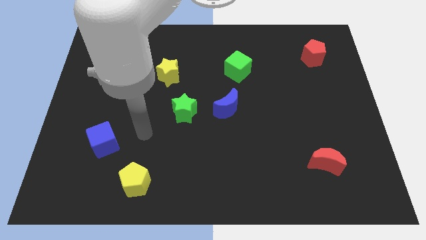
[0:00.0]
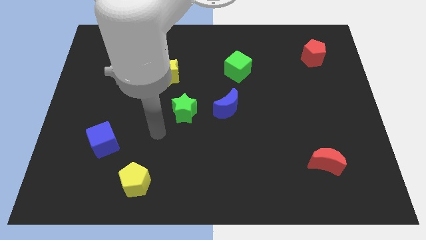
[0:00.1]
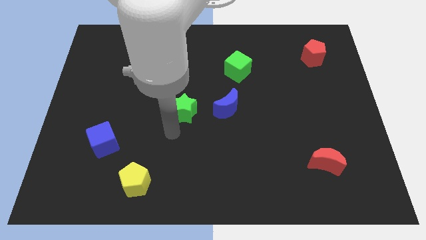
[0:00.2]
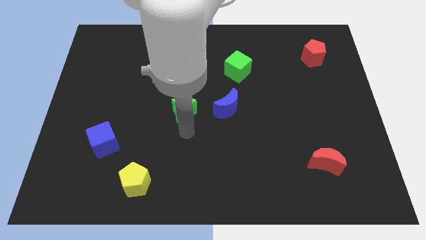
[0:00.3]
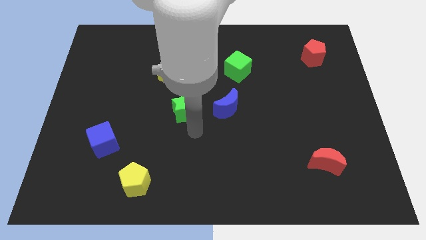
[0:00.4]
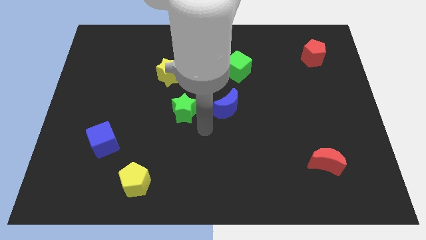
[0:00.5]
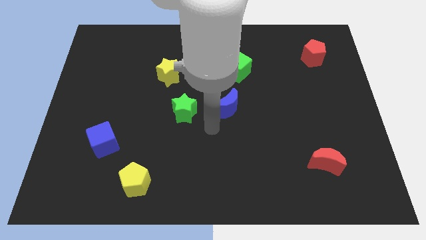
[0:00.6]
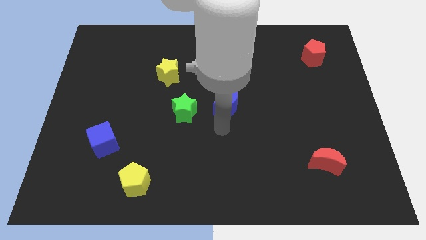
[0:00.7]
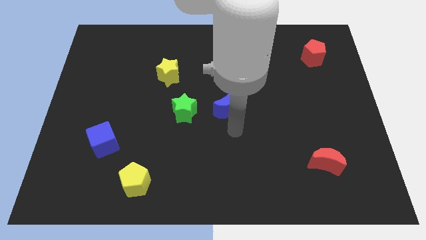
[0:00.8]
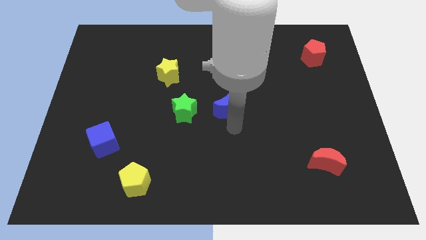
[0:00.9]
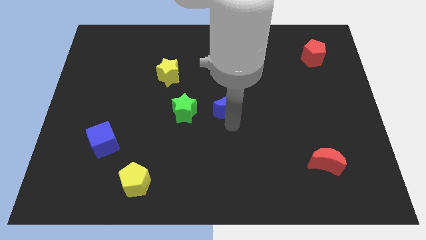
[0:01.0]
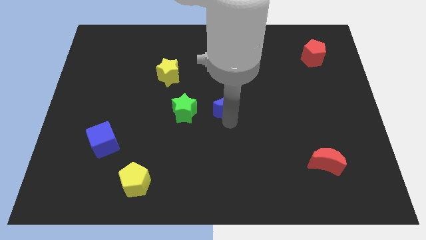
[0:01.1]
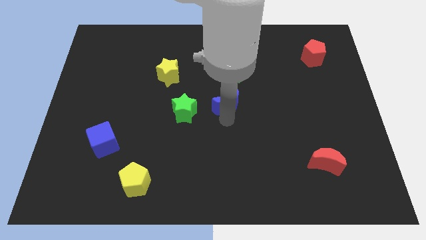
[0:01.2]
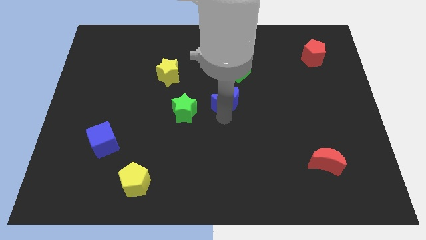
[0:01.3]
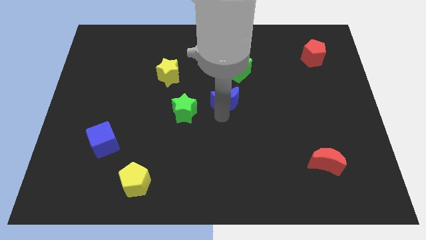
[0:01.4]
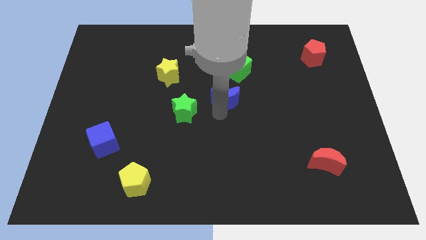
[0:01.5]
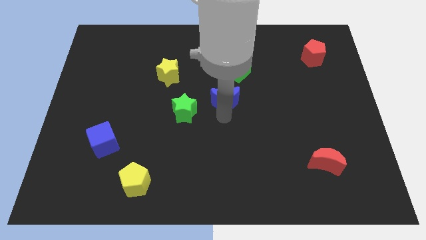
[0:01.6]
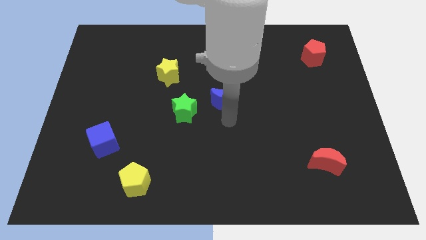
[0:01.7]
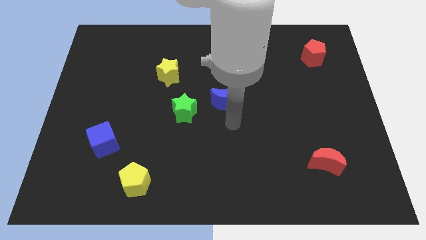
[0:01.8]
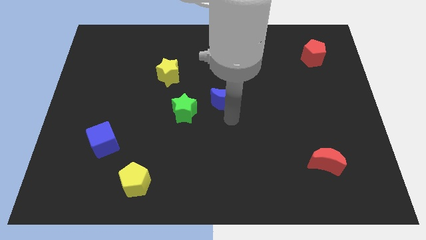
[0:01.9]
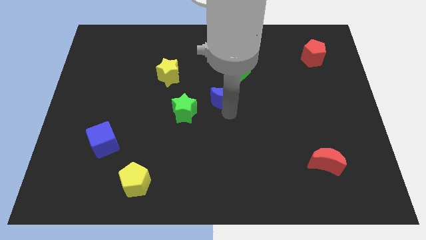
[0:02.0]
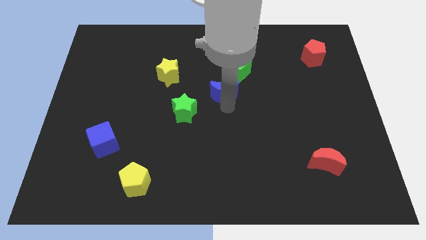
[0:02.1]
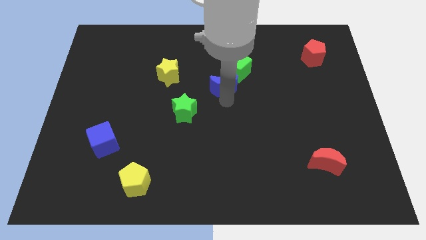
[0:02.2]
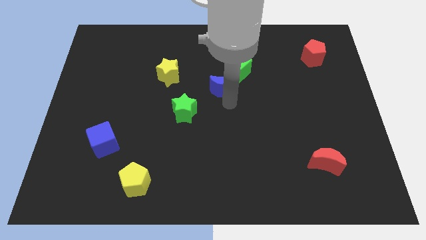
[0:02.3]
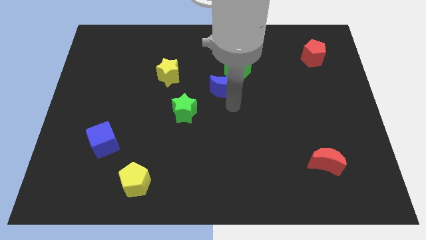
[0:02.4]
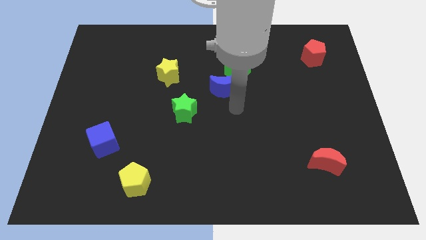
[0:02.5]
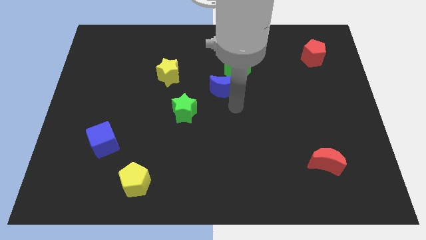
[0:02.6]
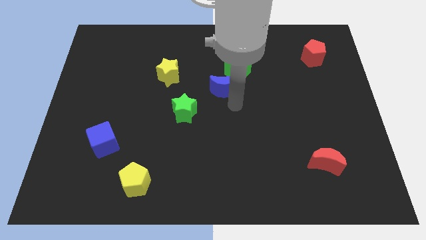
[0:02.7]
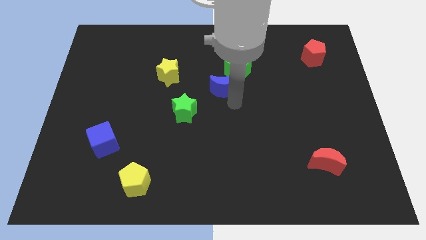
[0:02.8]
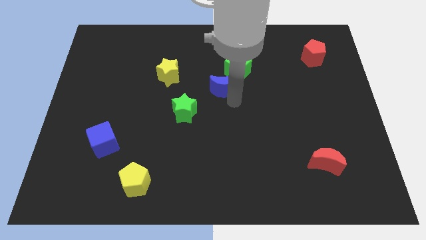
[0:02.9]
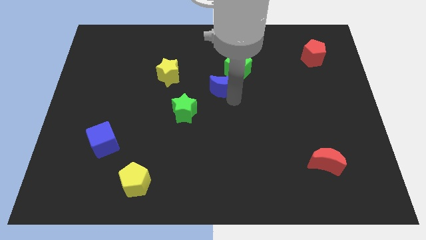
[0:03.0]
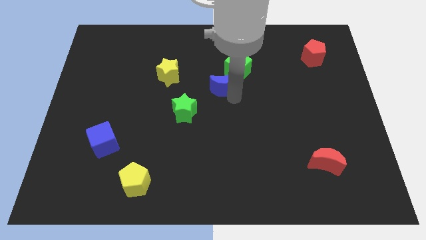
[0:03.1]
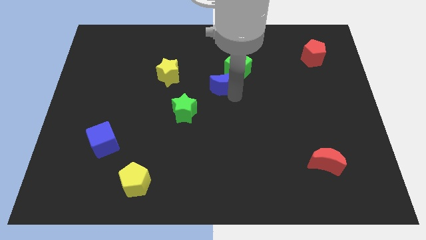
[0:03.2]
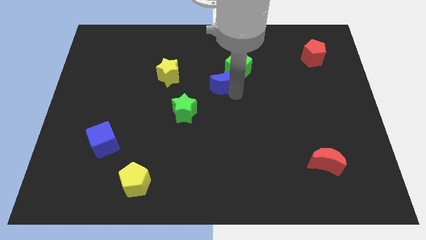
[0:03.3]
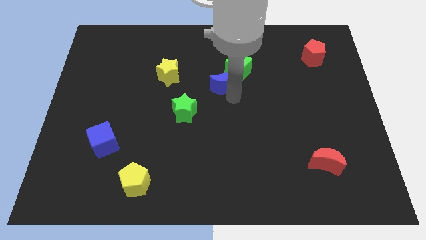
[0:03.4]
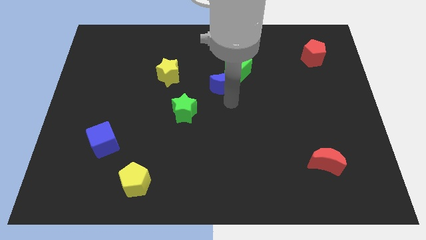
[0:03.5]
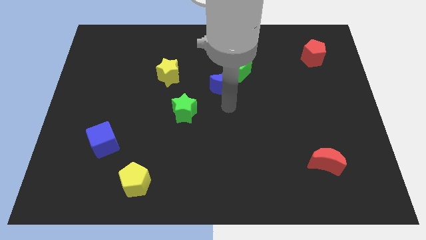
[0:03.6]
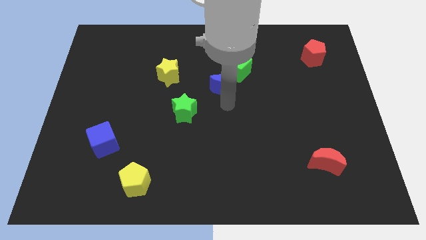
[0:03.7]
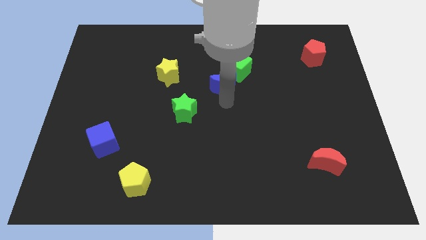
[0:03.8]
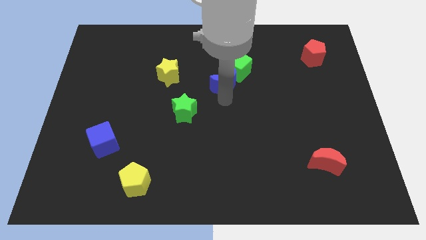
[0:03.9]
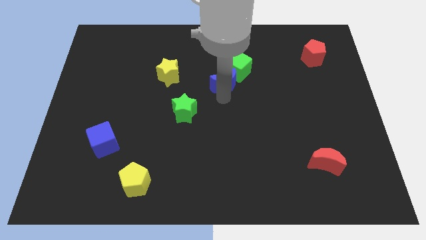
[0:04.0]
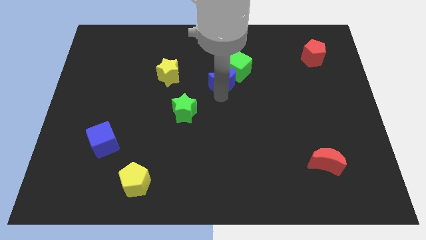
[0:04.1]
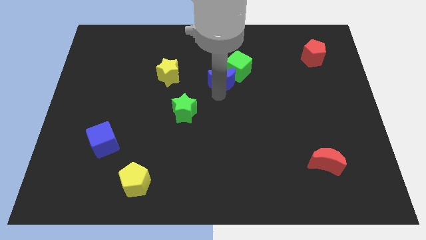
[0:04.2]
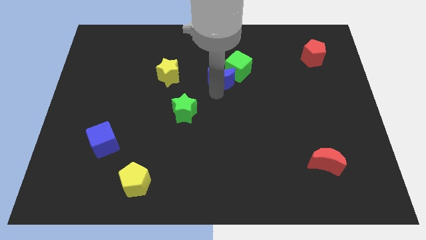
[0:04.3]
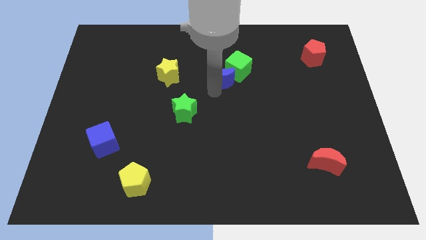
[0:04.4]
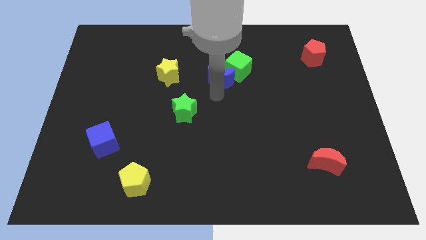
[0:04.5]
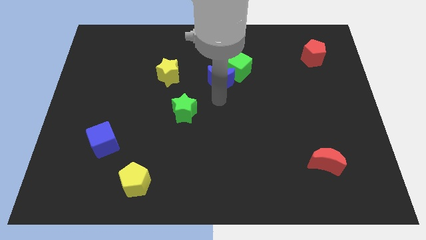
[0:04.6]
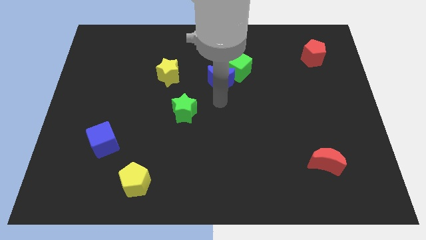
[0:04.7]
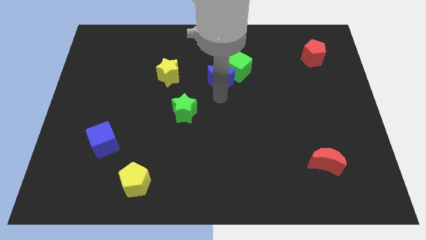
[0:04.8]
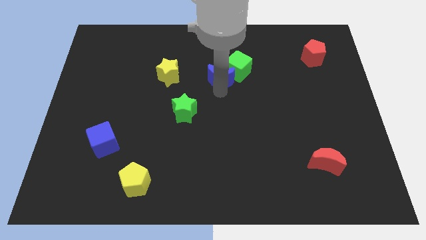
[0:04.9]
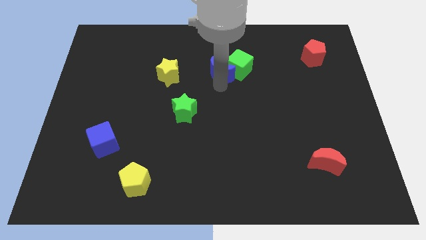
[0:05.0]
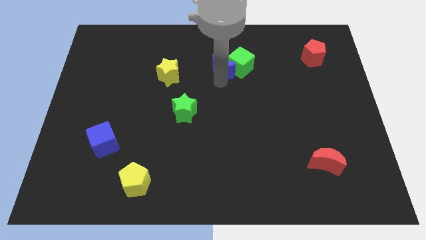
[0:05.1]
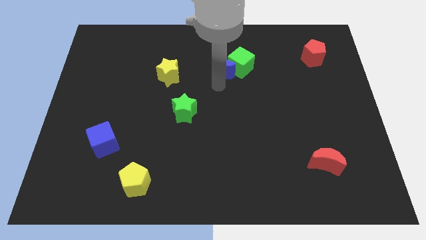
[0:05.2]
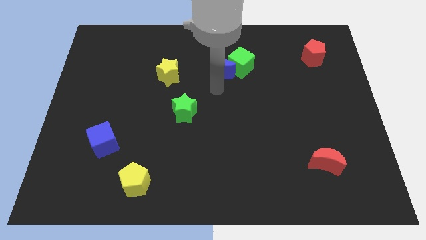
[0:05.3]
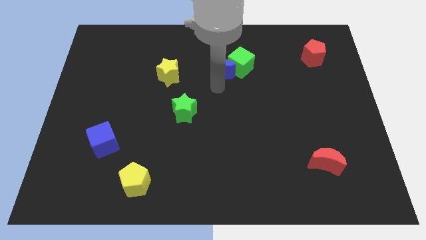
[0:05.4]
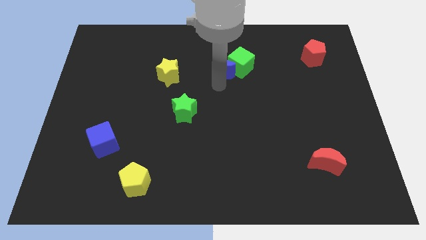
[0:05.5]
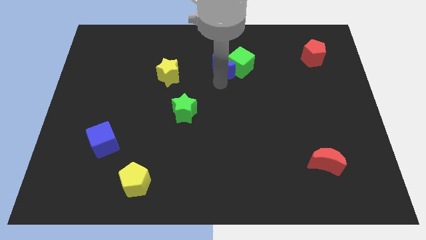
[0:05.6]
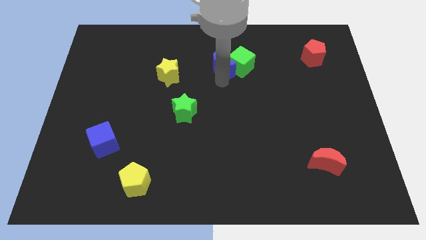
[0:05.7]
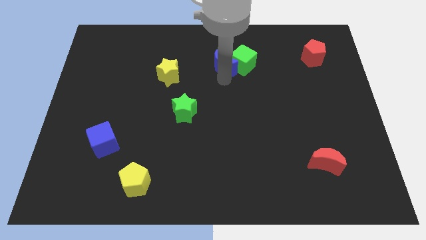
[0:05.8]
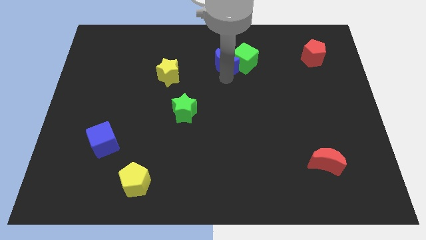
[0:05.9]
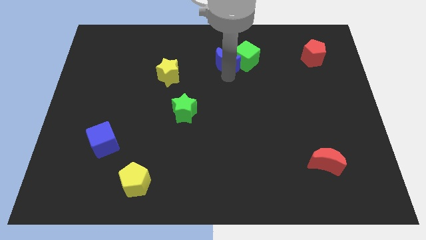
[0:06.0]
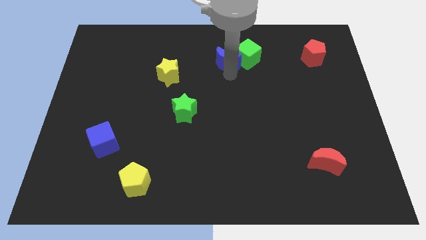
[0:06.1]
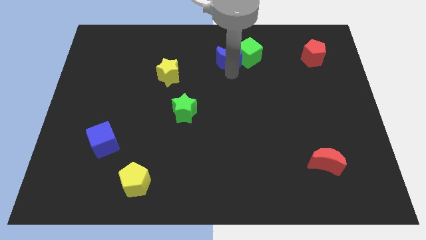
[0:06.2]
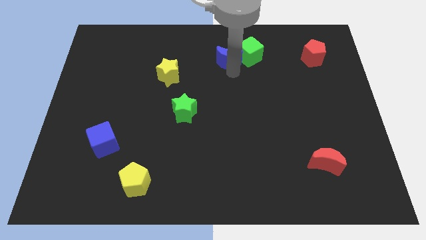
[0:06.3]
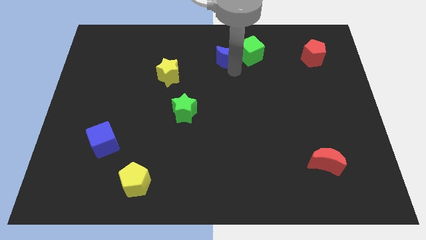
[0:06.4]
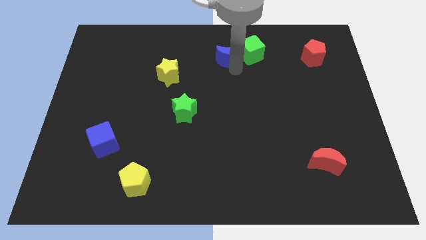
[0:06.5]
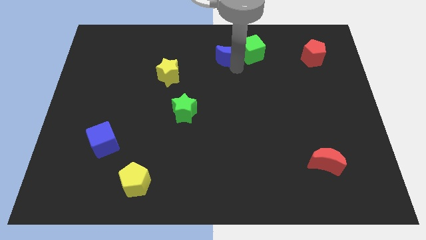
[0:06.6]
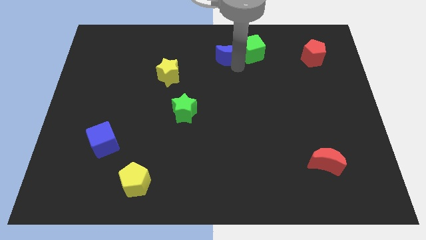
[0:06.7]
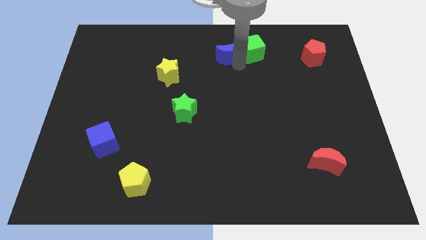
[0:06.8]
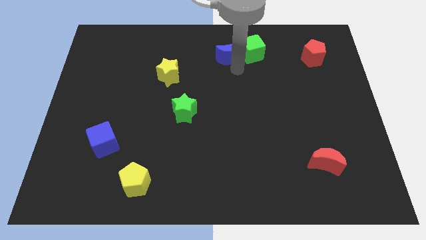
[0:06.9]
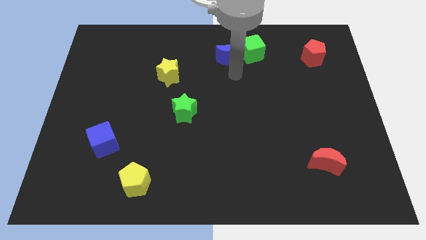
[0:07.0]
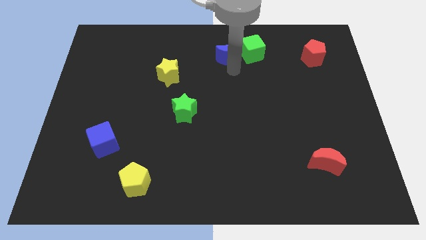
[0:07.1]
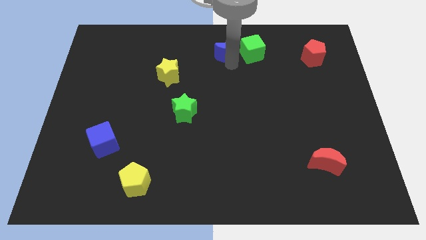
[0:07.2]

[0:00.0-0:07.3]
put the blue moon to the top side
